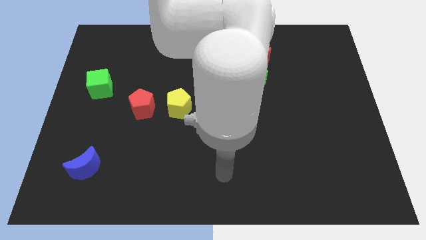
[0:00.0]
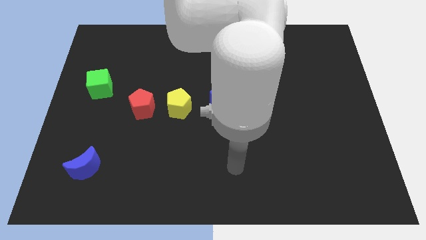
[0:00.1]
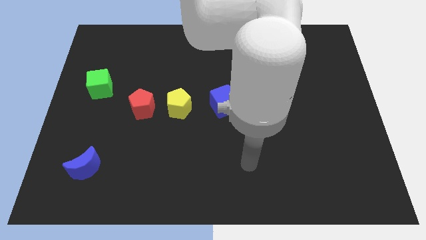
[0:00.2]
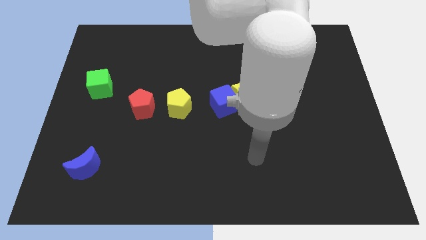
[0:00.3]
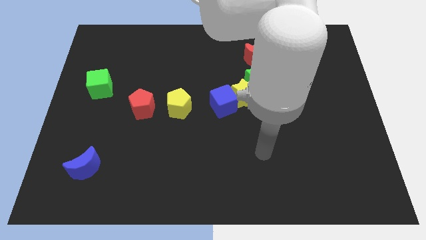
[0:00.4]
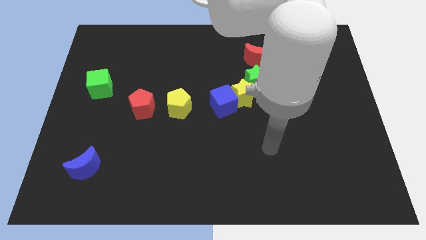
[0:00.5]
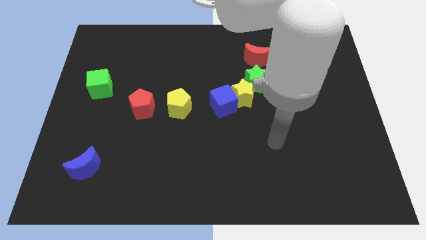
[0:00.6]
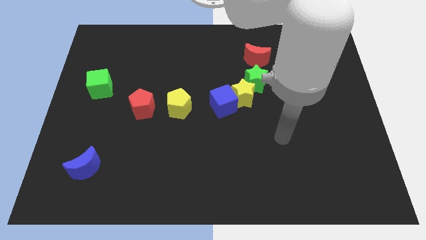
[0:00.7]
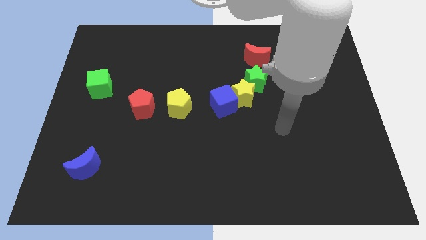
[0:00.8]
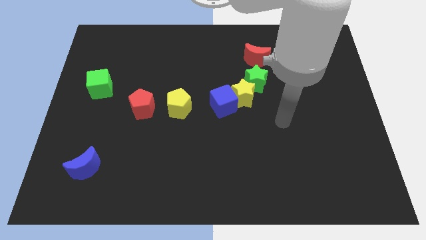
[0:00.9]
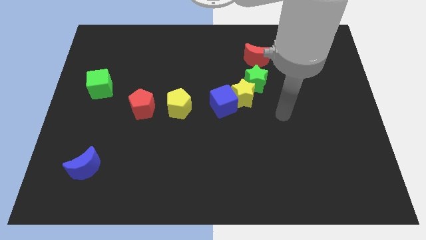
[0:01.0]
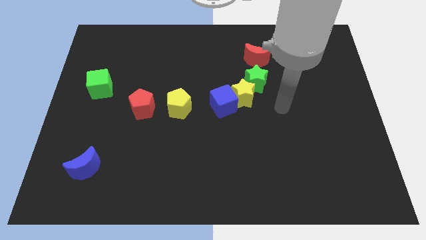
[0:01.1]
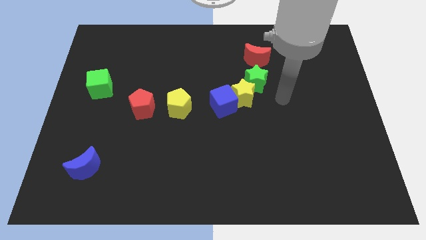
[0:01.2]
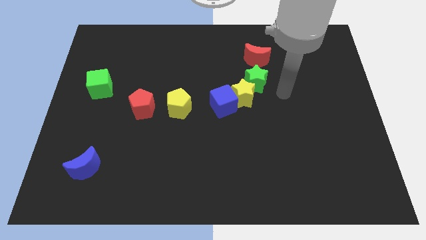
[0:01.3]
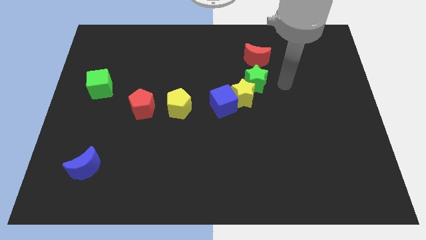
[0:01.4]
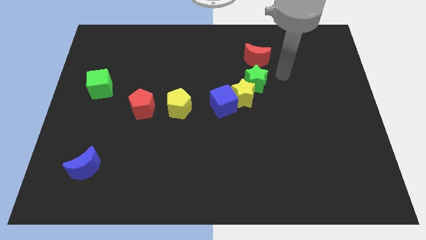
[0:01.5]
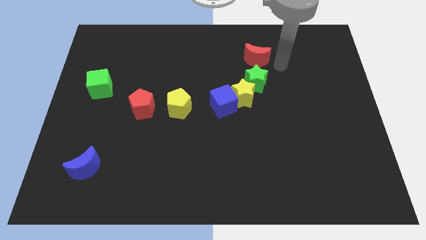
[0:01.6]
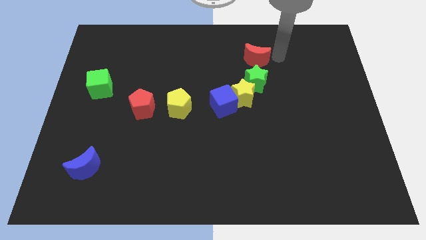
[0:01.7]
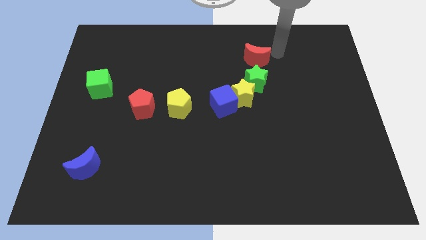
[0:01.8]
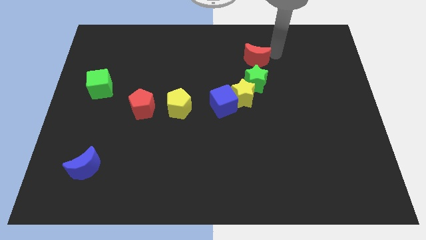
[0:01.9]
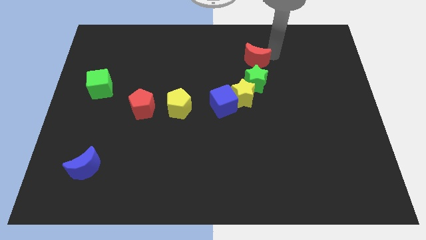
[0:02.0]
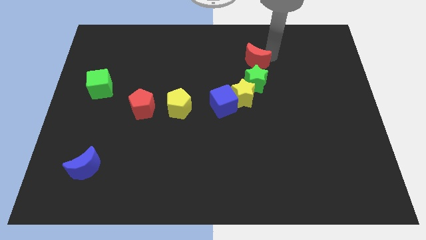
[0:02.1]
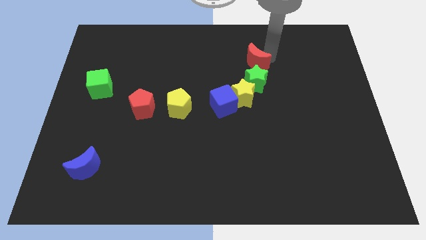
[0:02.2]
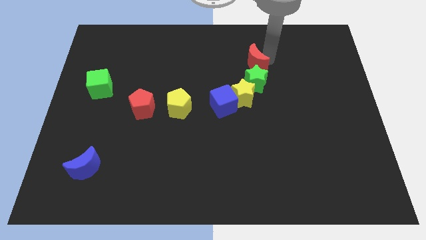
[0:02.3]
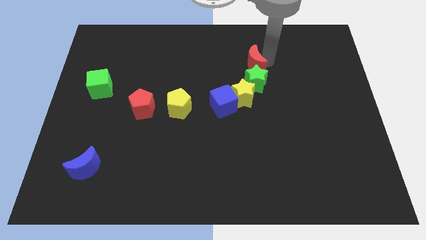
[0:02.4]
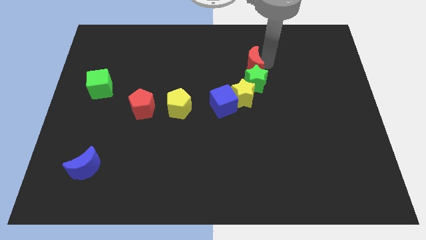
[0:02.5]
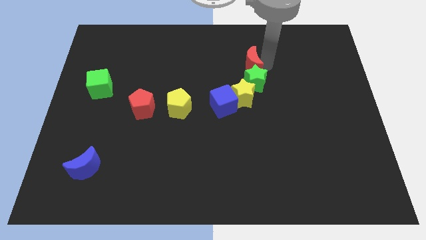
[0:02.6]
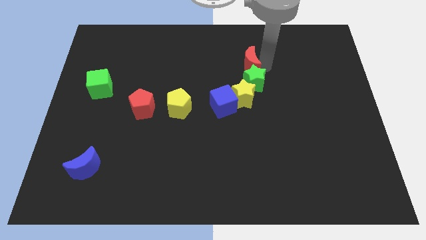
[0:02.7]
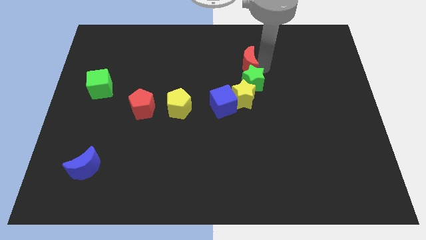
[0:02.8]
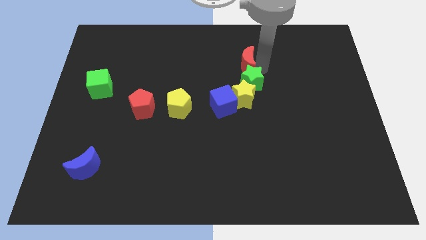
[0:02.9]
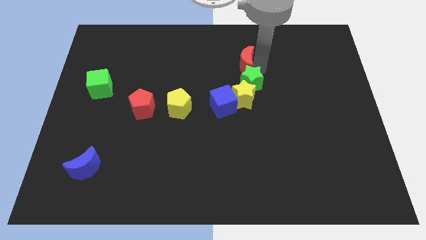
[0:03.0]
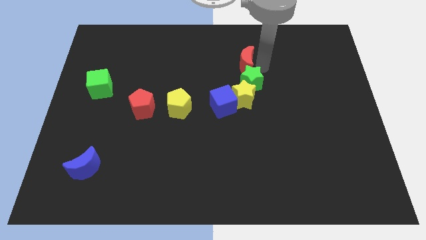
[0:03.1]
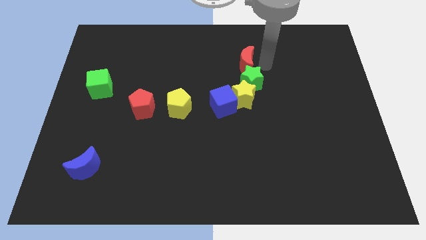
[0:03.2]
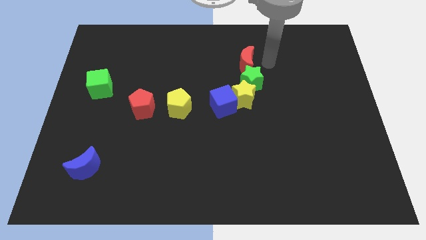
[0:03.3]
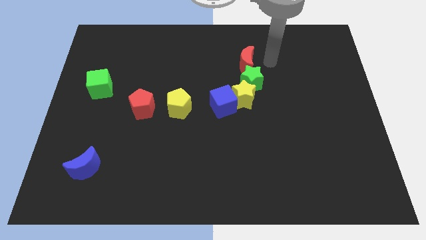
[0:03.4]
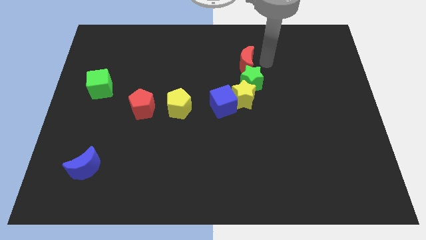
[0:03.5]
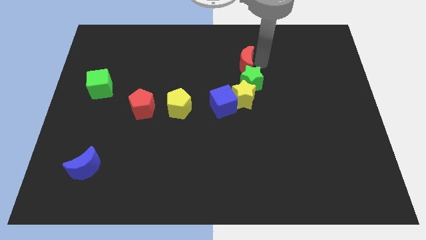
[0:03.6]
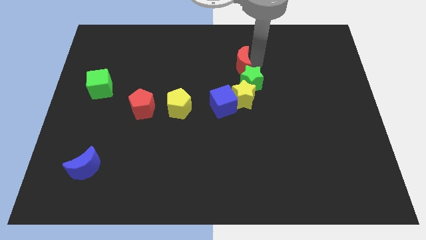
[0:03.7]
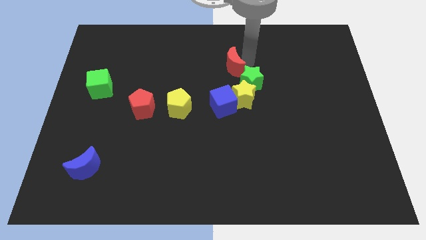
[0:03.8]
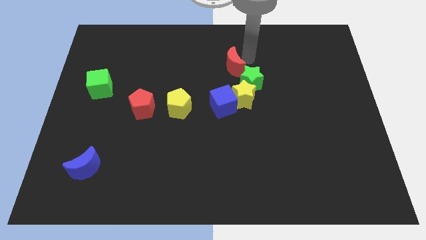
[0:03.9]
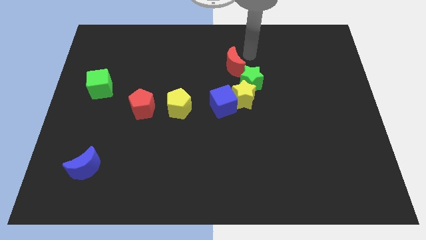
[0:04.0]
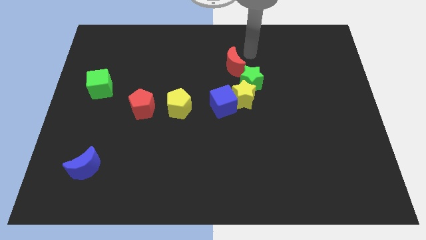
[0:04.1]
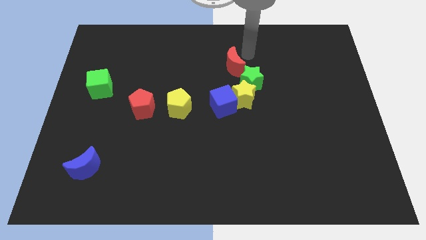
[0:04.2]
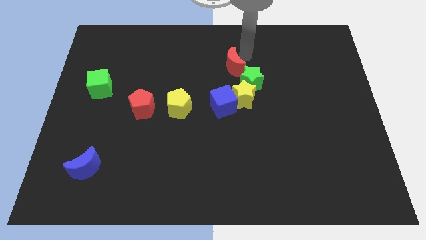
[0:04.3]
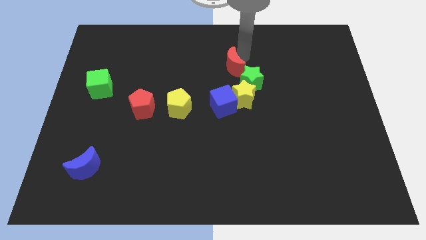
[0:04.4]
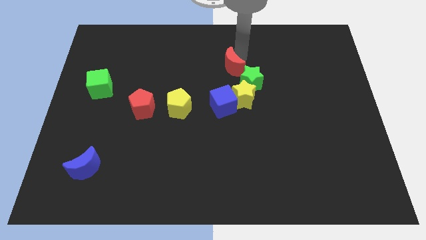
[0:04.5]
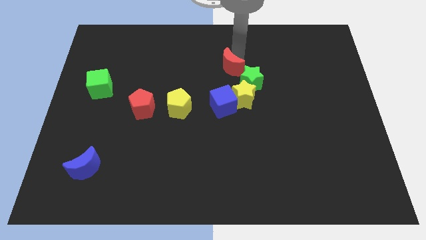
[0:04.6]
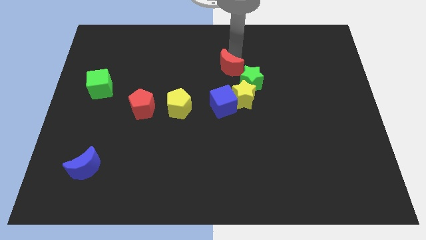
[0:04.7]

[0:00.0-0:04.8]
move the red moon a little down and left diagonally

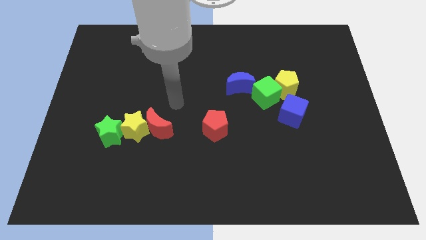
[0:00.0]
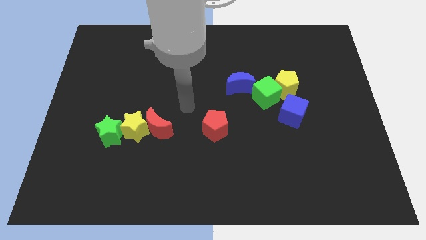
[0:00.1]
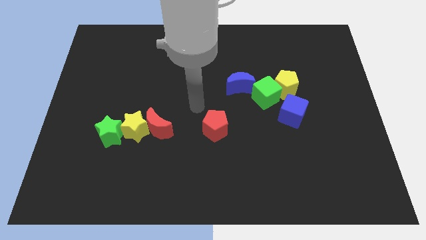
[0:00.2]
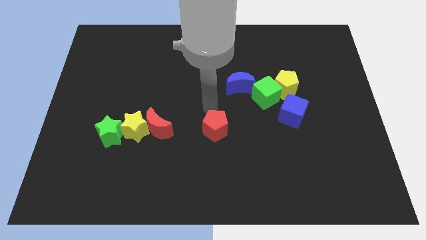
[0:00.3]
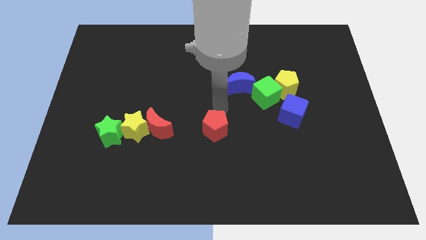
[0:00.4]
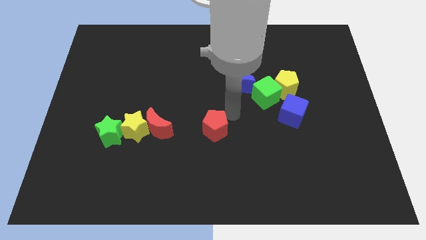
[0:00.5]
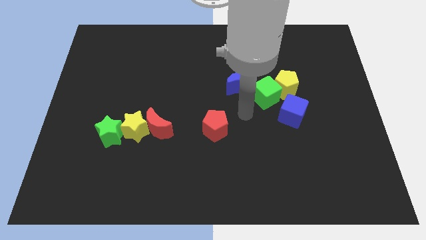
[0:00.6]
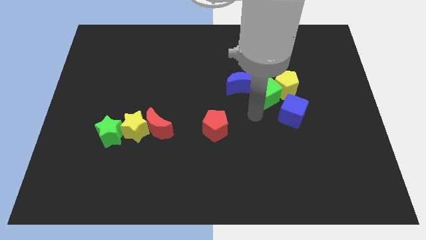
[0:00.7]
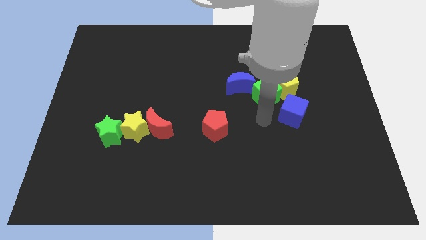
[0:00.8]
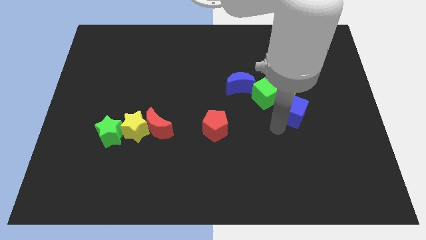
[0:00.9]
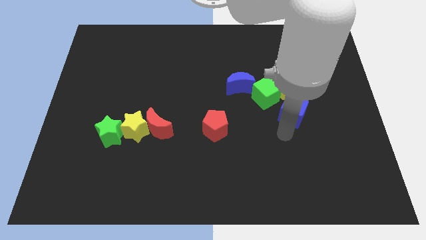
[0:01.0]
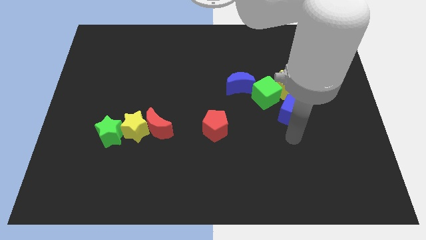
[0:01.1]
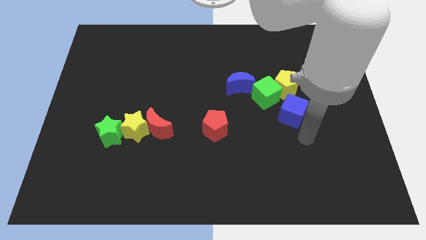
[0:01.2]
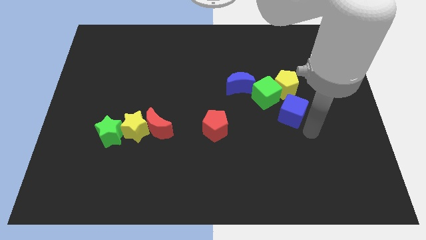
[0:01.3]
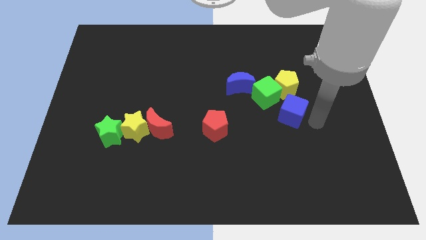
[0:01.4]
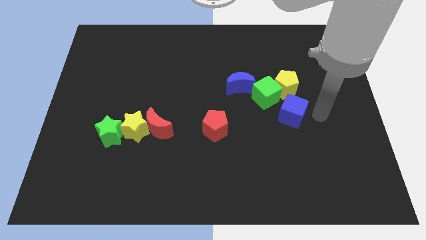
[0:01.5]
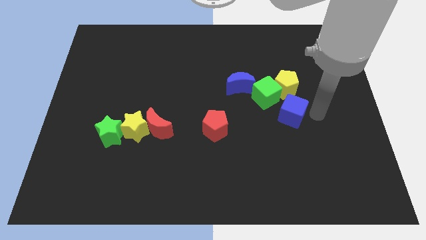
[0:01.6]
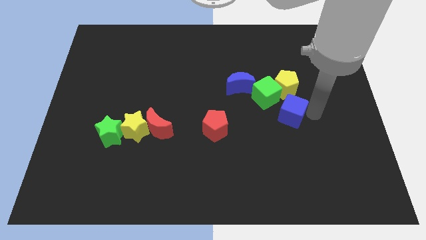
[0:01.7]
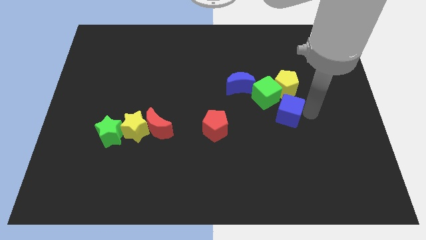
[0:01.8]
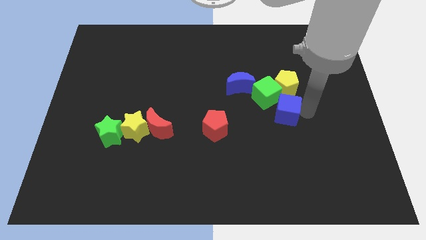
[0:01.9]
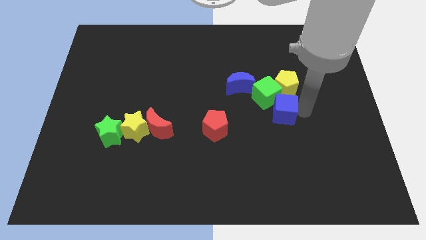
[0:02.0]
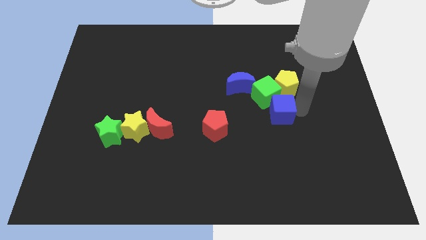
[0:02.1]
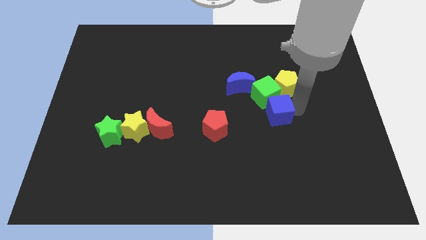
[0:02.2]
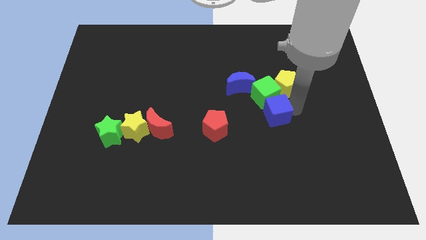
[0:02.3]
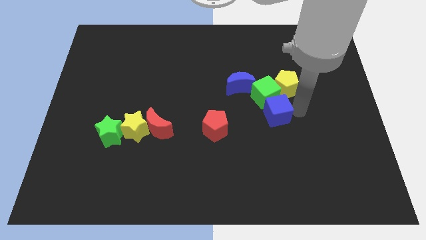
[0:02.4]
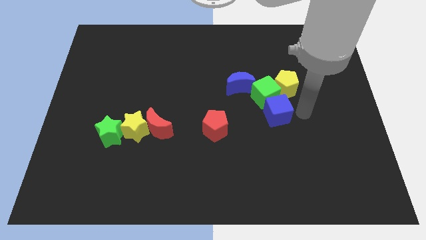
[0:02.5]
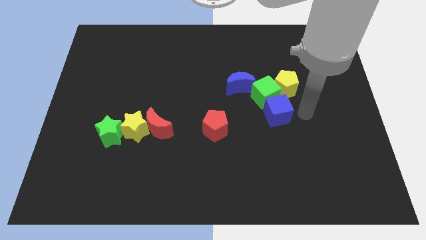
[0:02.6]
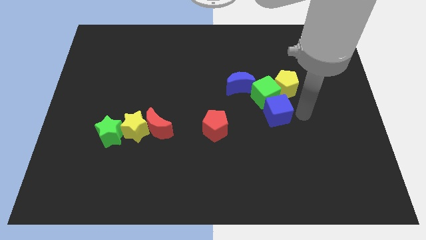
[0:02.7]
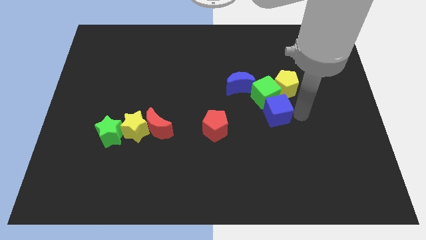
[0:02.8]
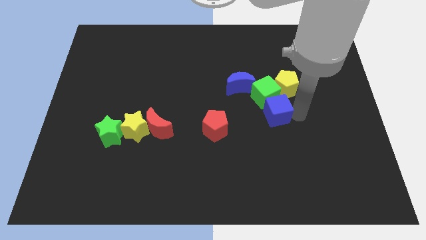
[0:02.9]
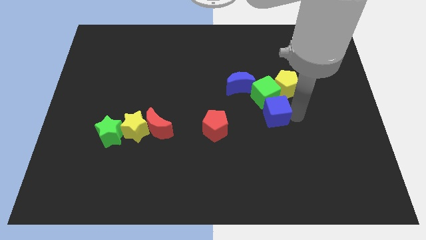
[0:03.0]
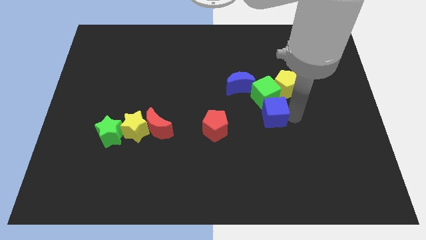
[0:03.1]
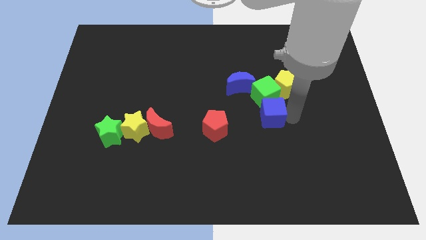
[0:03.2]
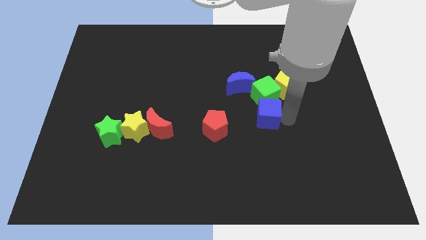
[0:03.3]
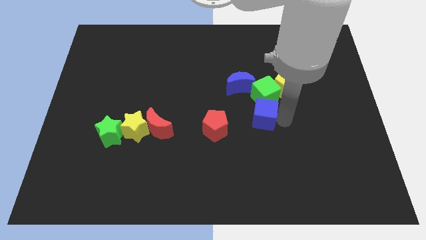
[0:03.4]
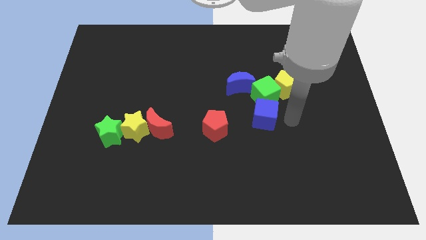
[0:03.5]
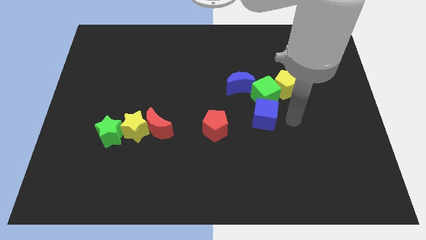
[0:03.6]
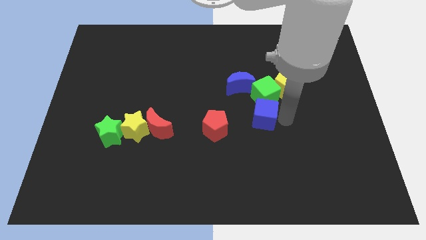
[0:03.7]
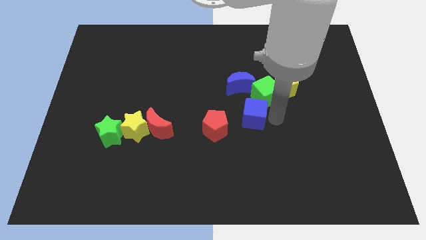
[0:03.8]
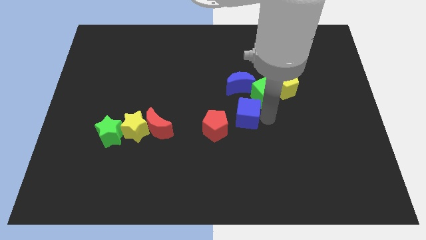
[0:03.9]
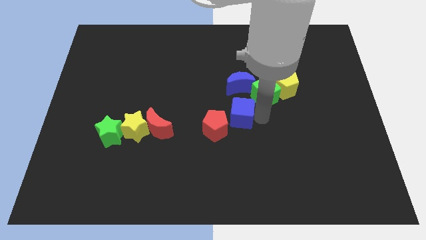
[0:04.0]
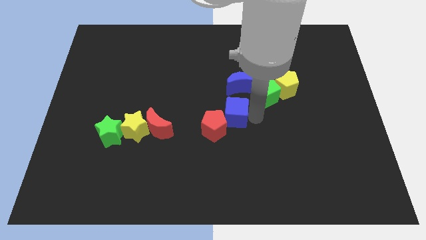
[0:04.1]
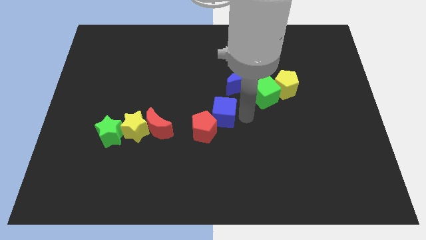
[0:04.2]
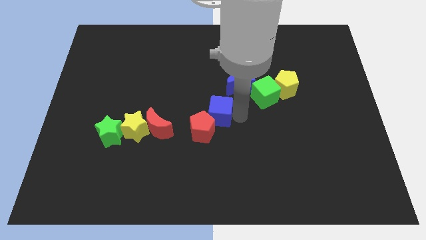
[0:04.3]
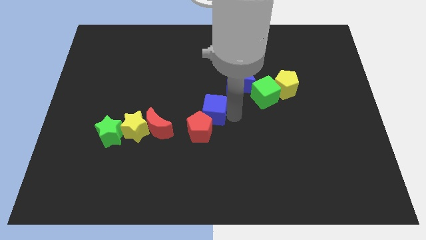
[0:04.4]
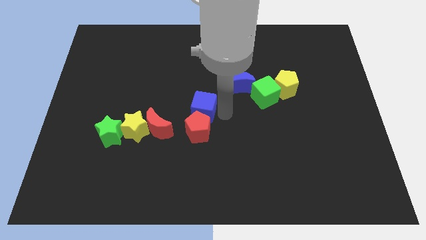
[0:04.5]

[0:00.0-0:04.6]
push the blue cube left
